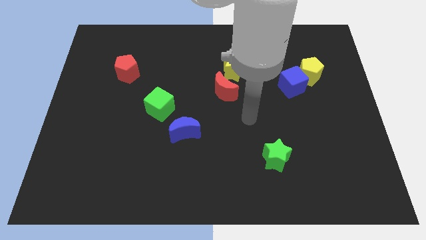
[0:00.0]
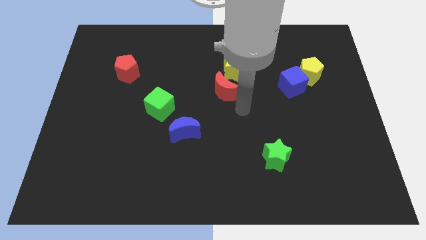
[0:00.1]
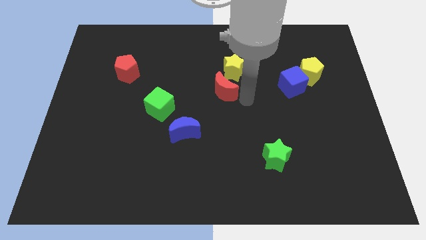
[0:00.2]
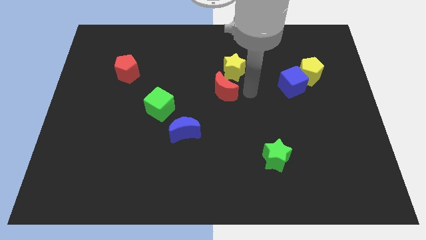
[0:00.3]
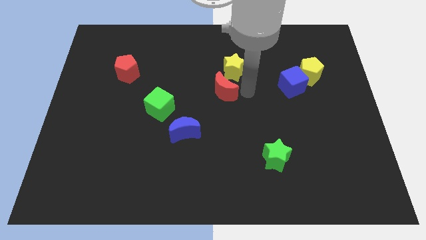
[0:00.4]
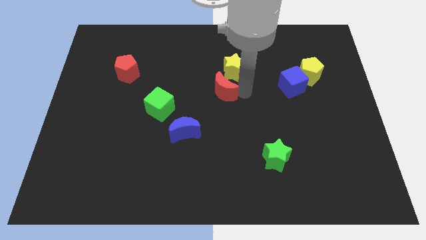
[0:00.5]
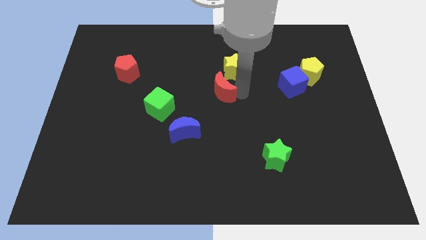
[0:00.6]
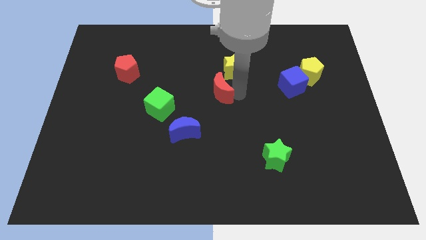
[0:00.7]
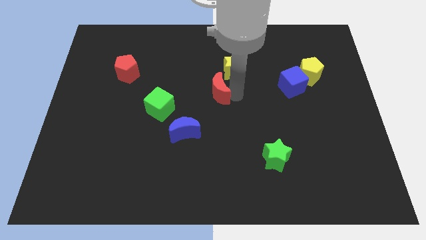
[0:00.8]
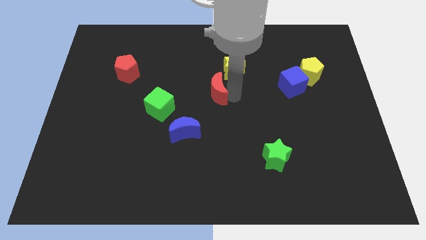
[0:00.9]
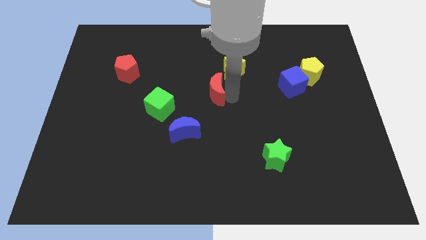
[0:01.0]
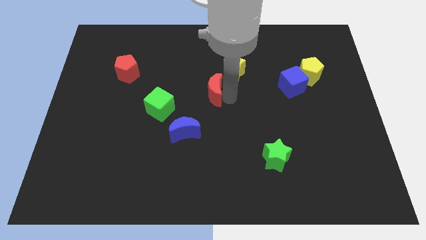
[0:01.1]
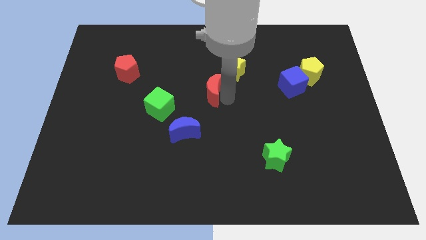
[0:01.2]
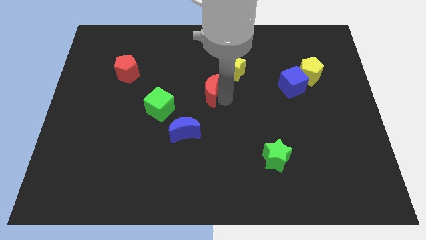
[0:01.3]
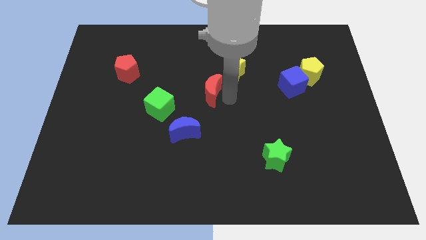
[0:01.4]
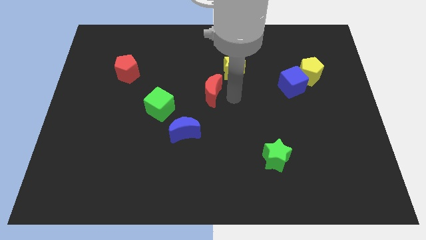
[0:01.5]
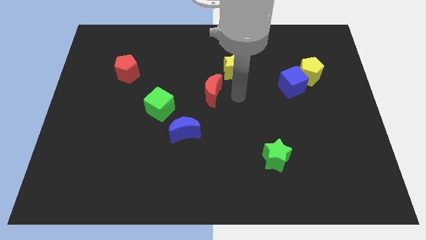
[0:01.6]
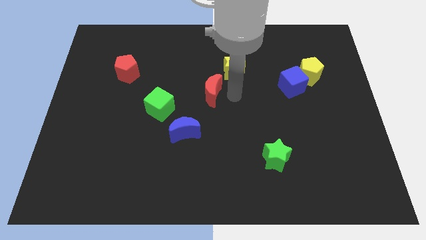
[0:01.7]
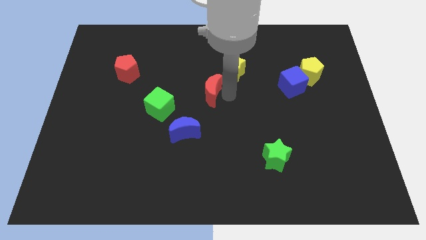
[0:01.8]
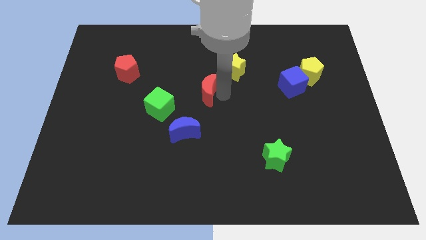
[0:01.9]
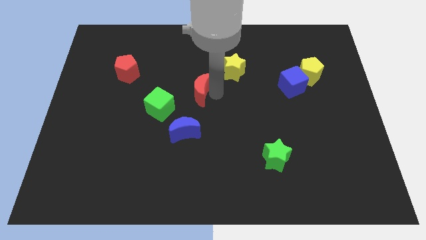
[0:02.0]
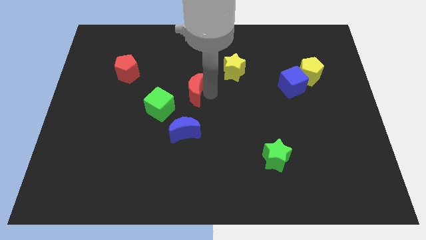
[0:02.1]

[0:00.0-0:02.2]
slightly slide the red moon to the left

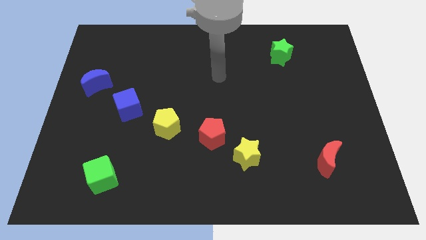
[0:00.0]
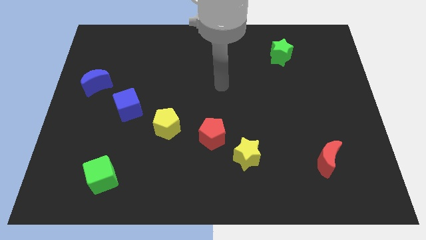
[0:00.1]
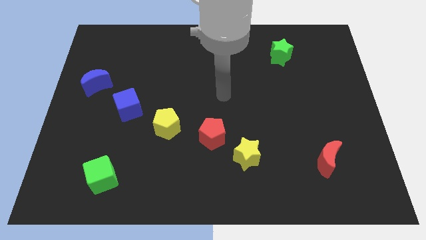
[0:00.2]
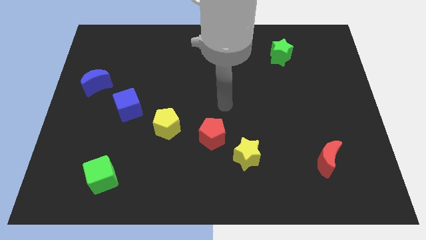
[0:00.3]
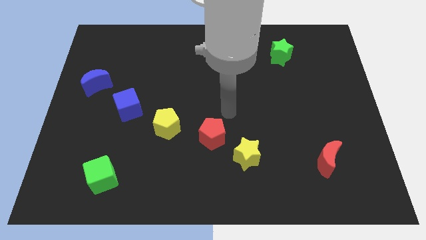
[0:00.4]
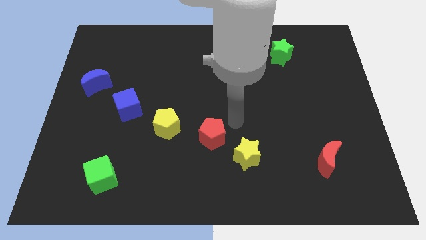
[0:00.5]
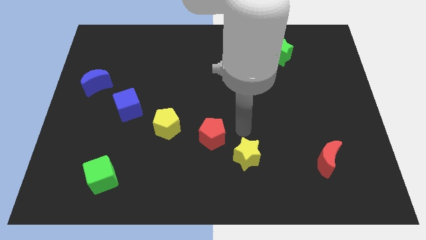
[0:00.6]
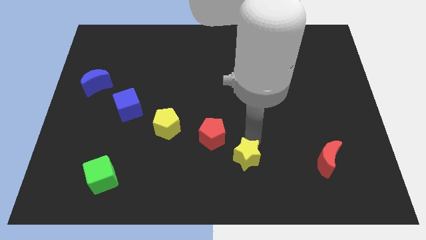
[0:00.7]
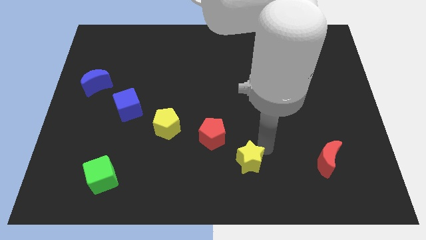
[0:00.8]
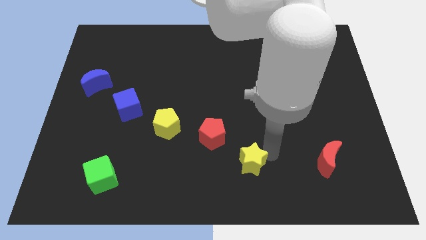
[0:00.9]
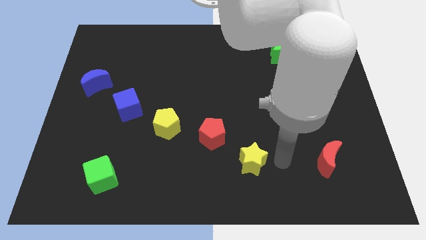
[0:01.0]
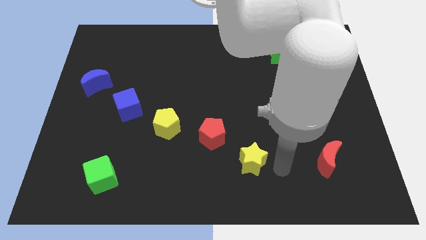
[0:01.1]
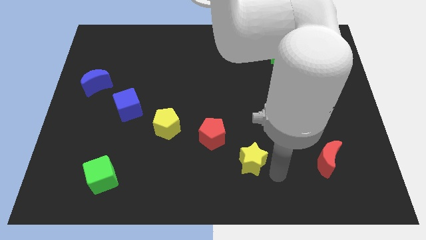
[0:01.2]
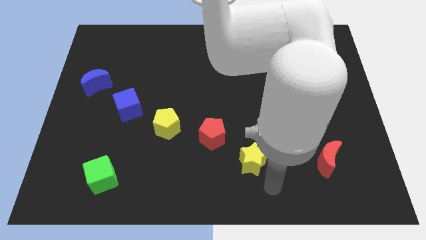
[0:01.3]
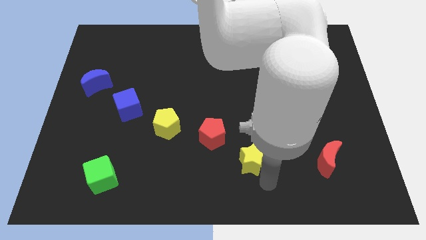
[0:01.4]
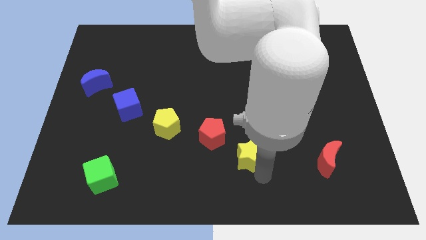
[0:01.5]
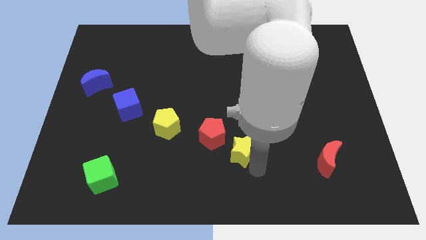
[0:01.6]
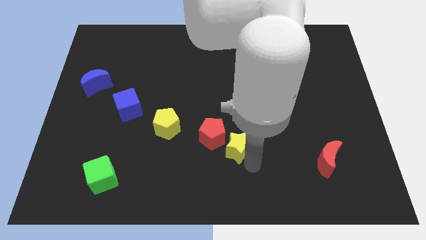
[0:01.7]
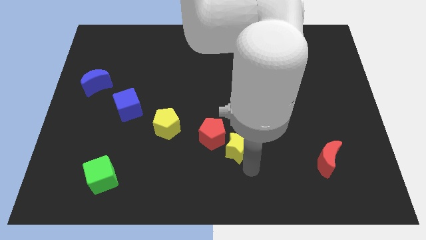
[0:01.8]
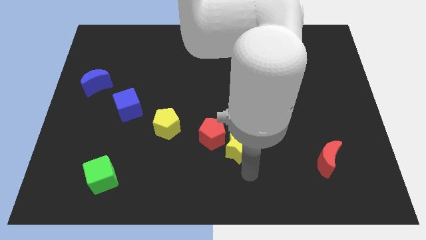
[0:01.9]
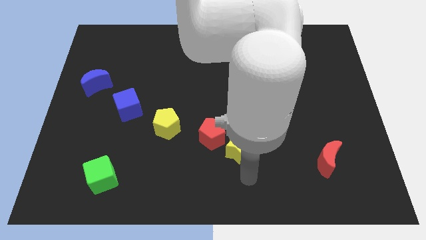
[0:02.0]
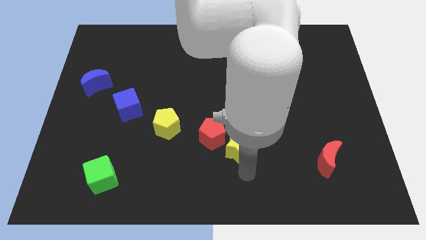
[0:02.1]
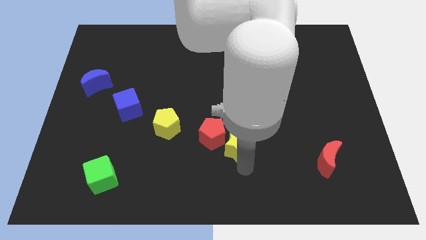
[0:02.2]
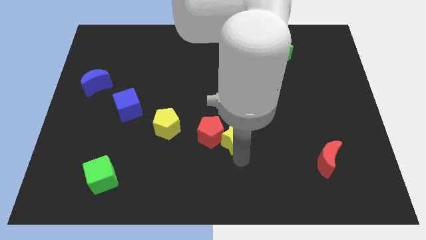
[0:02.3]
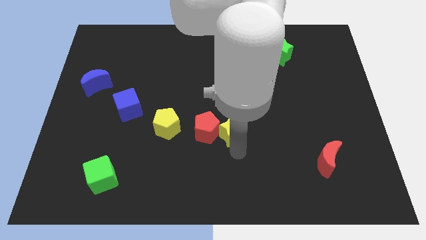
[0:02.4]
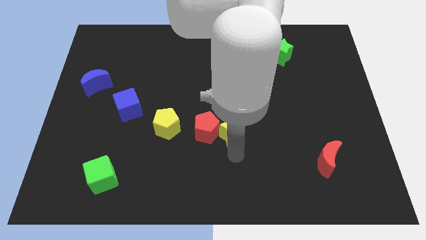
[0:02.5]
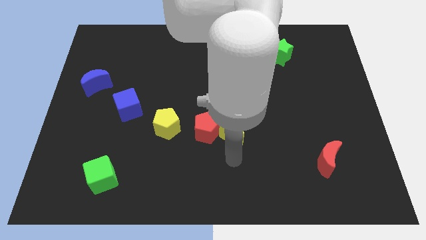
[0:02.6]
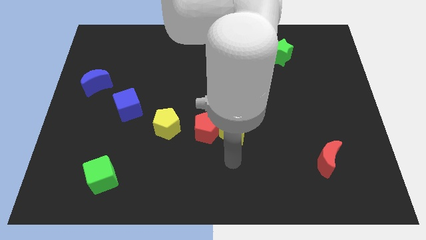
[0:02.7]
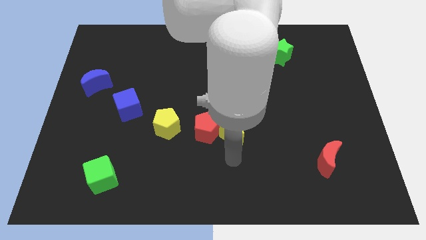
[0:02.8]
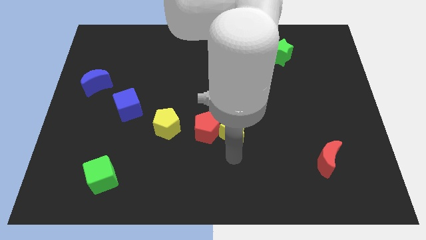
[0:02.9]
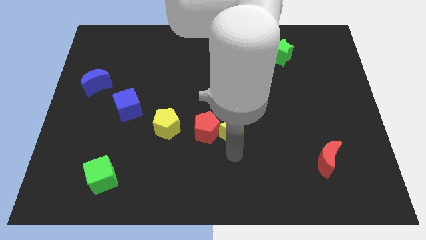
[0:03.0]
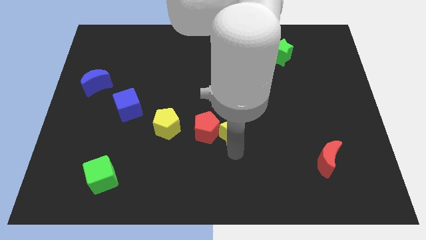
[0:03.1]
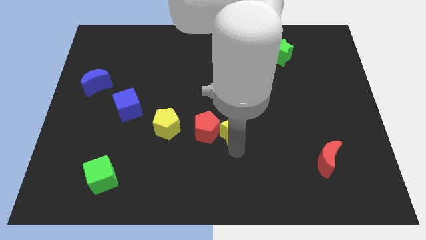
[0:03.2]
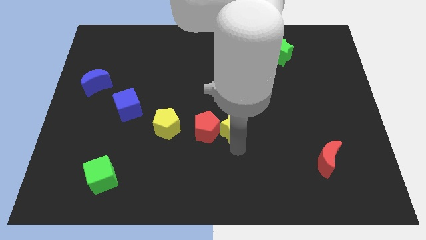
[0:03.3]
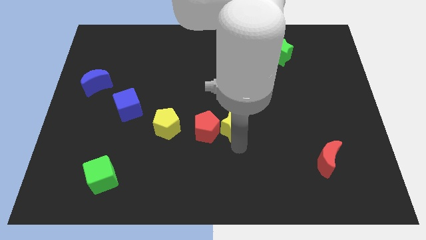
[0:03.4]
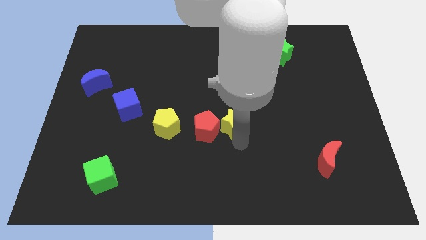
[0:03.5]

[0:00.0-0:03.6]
move the yellow star up and left diagonally a bit

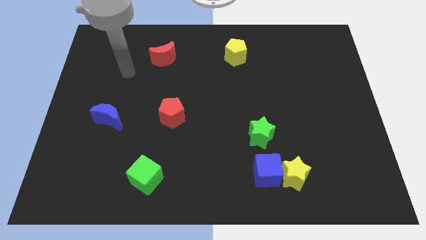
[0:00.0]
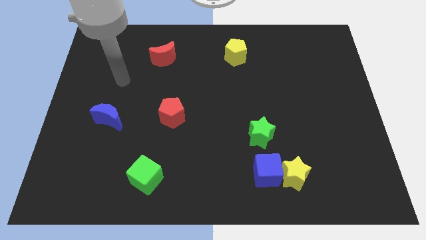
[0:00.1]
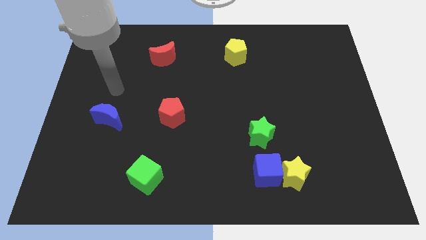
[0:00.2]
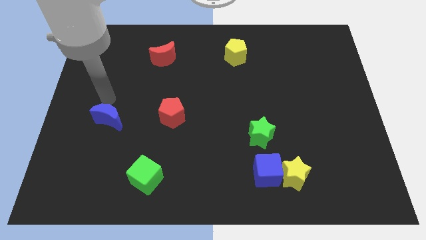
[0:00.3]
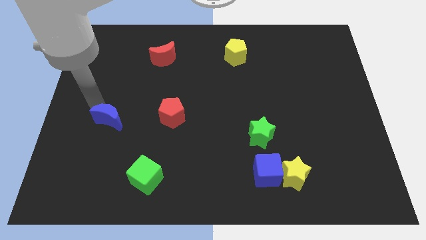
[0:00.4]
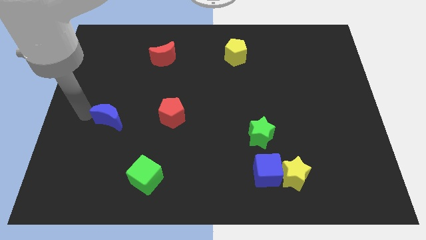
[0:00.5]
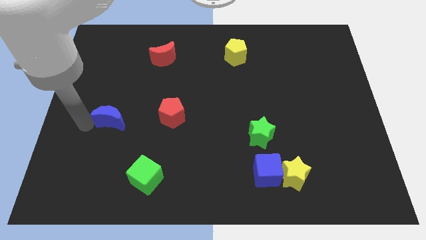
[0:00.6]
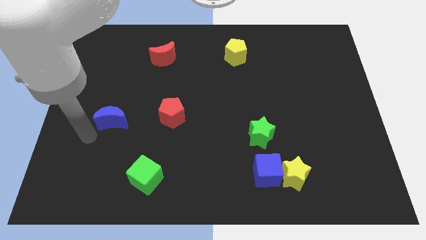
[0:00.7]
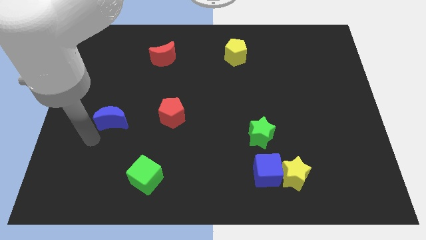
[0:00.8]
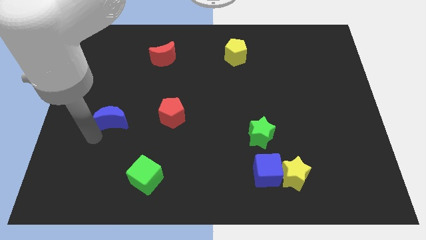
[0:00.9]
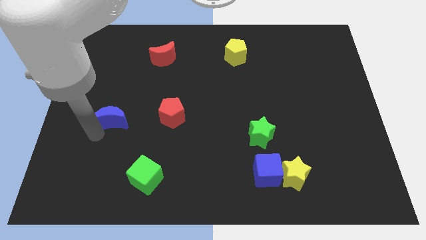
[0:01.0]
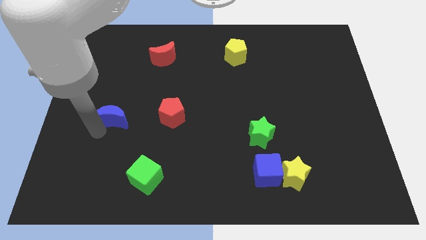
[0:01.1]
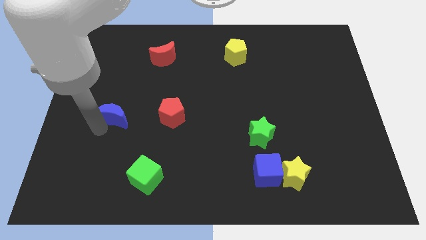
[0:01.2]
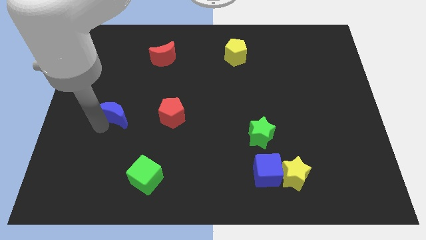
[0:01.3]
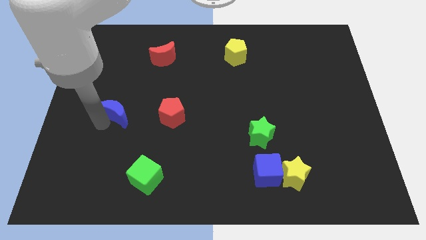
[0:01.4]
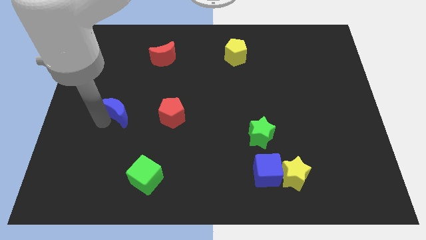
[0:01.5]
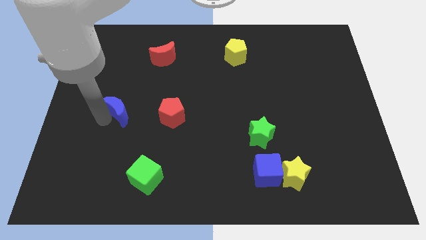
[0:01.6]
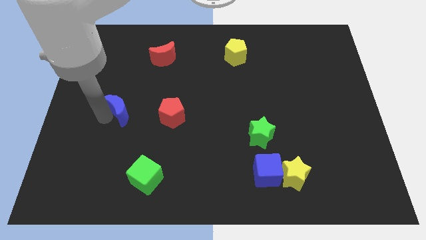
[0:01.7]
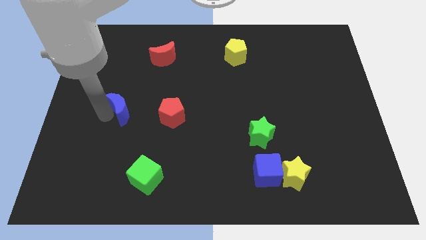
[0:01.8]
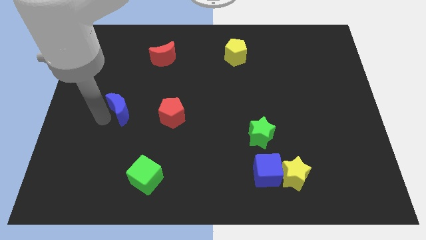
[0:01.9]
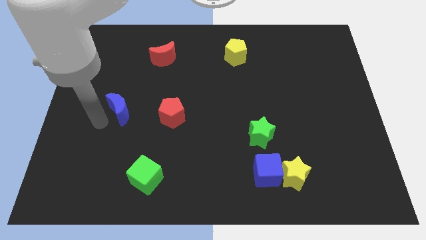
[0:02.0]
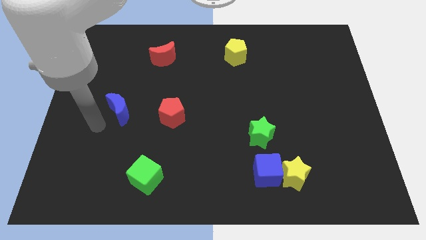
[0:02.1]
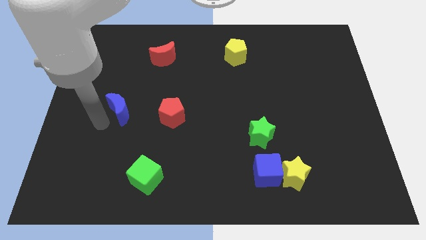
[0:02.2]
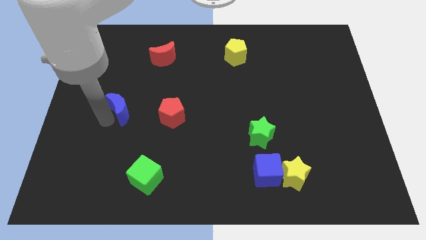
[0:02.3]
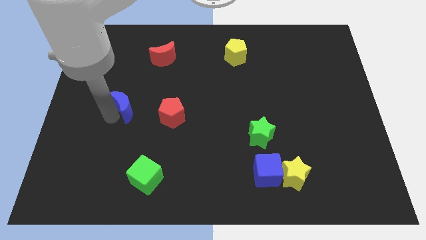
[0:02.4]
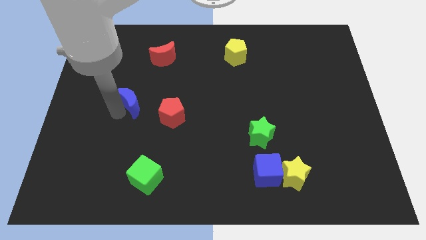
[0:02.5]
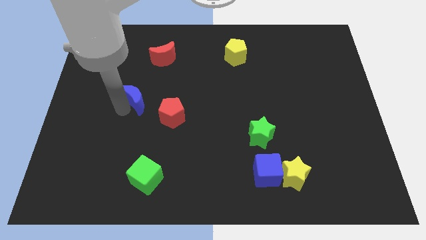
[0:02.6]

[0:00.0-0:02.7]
move the blue moon up and to the right a bit
